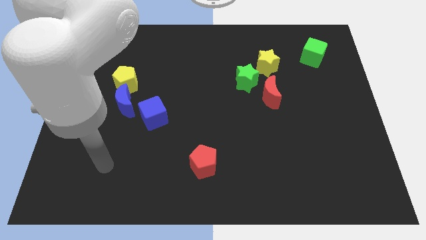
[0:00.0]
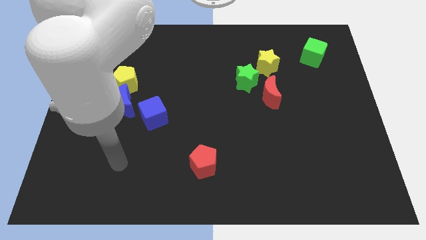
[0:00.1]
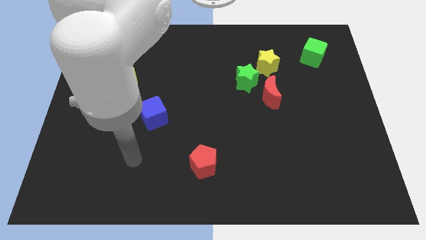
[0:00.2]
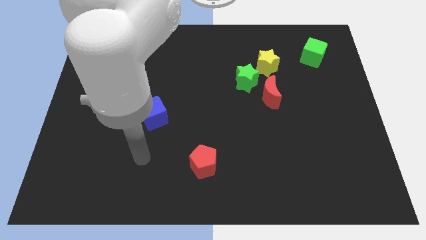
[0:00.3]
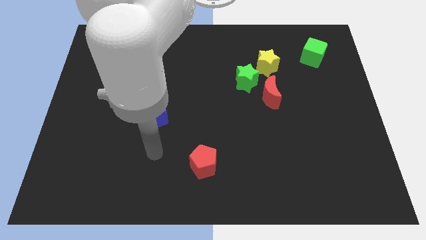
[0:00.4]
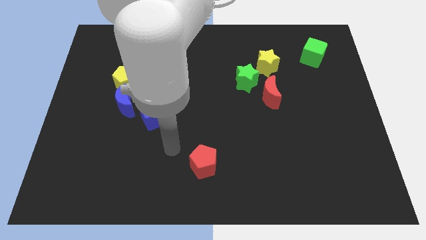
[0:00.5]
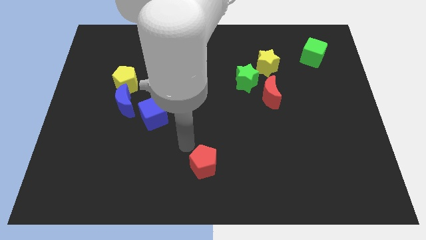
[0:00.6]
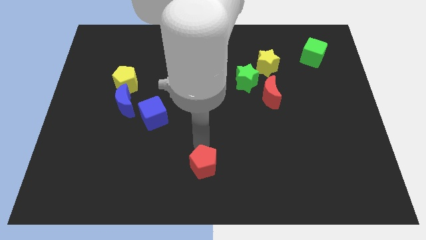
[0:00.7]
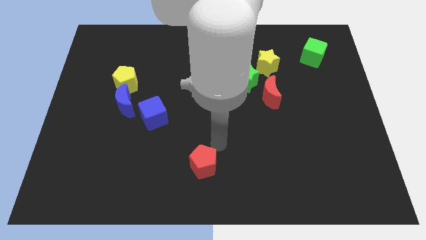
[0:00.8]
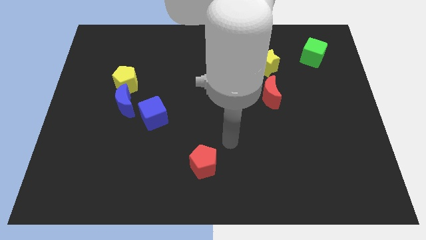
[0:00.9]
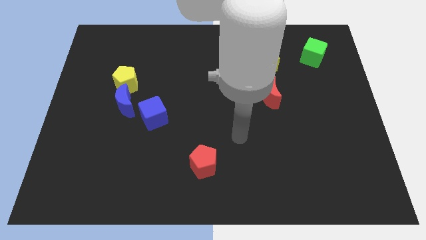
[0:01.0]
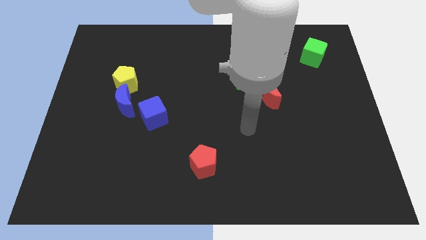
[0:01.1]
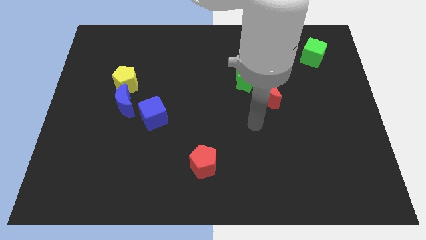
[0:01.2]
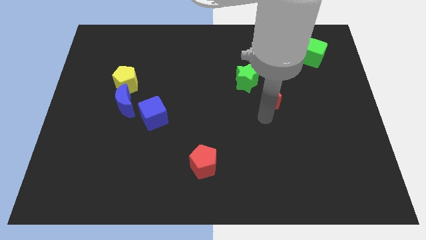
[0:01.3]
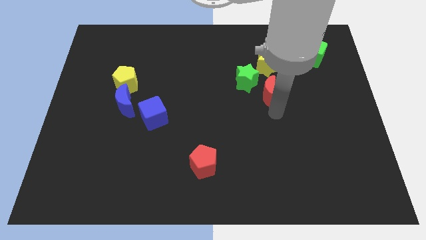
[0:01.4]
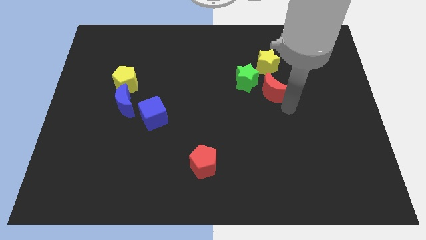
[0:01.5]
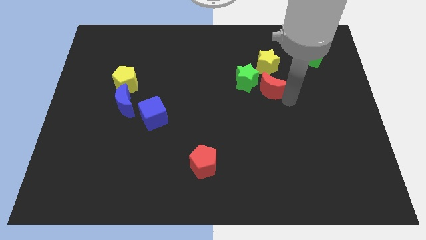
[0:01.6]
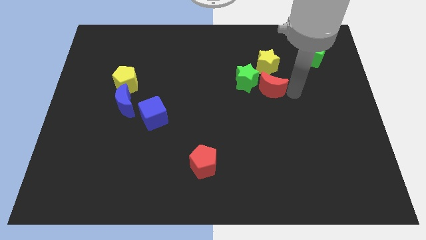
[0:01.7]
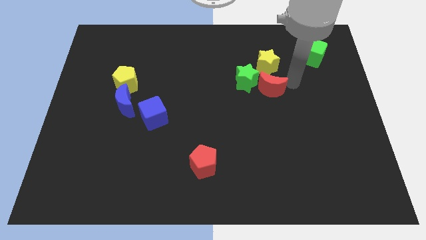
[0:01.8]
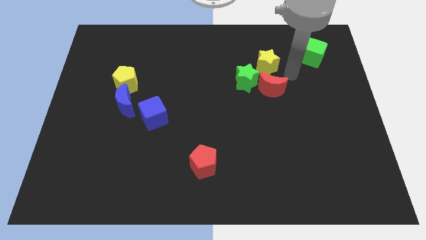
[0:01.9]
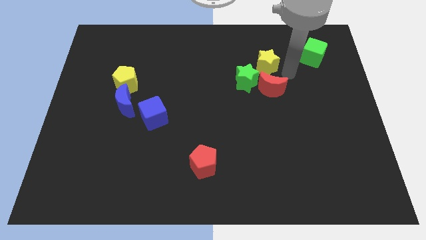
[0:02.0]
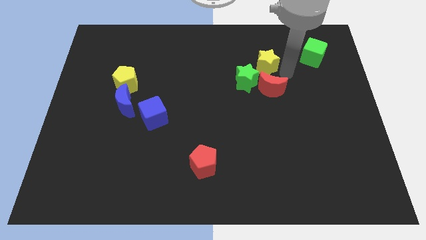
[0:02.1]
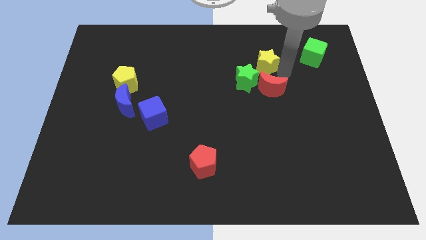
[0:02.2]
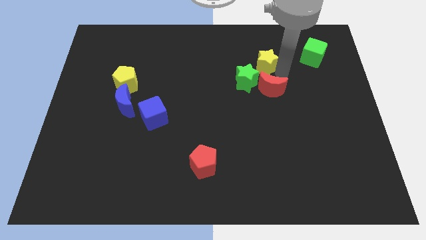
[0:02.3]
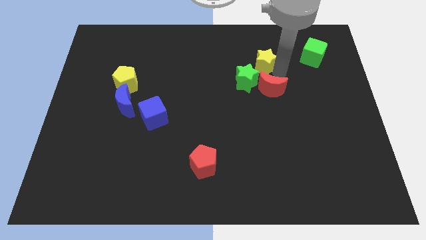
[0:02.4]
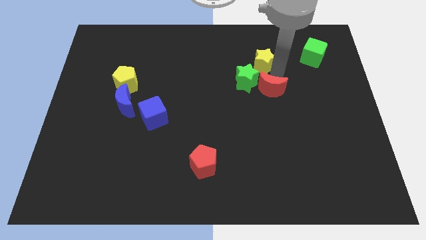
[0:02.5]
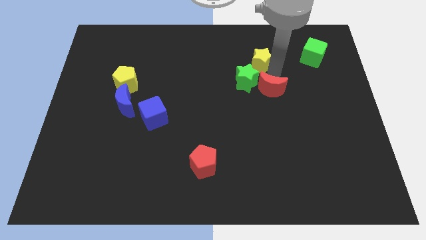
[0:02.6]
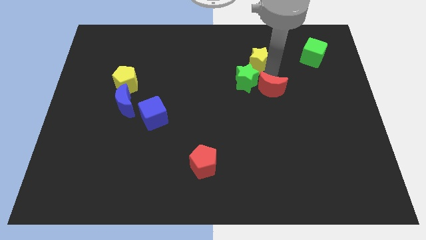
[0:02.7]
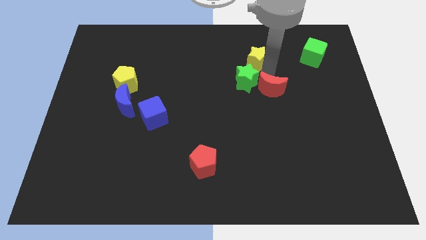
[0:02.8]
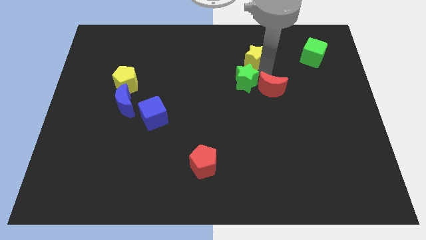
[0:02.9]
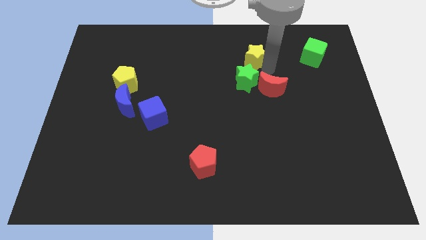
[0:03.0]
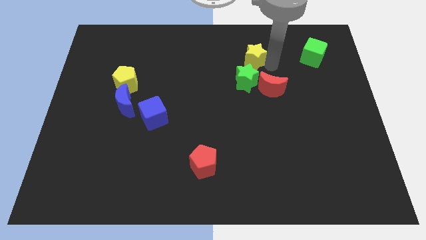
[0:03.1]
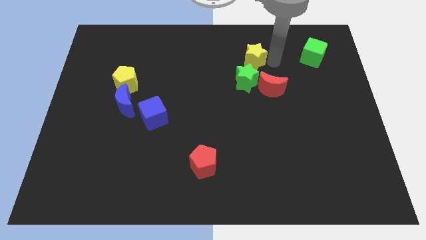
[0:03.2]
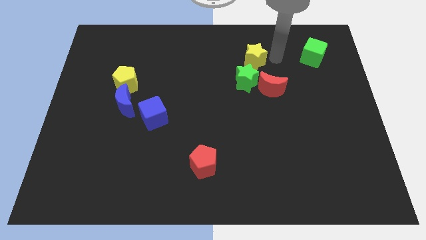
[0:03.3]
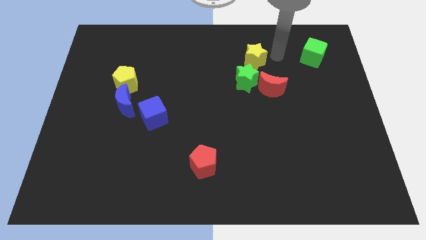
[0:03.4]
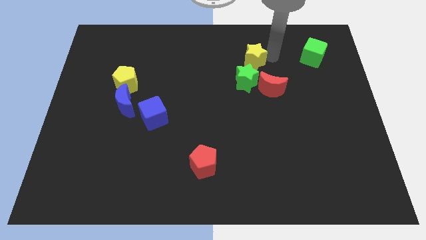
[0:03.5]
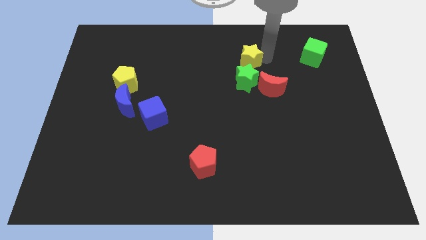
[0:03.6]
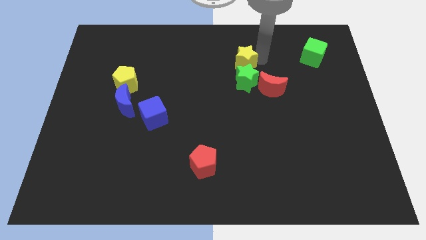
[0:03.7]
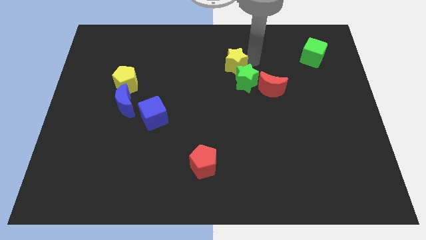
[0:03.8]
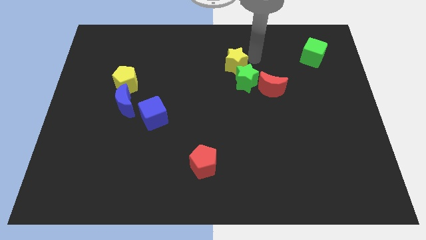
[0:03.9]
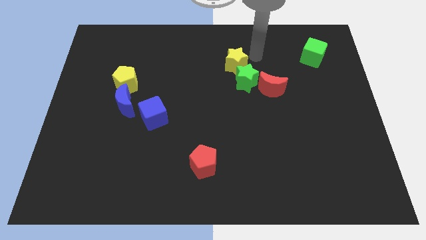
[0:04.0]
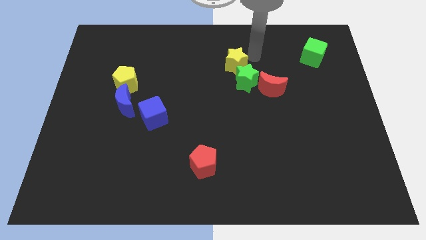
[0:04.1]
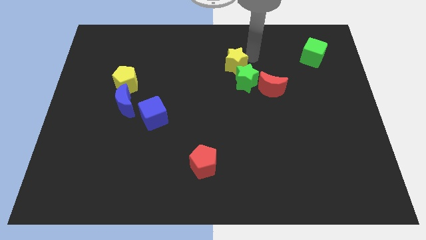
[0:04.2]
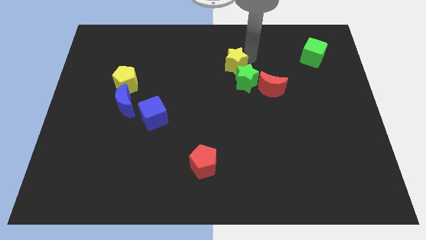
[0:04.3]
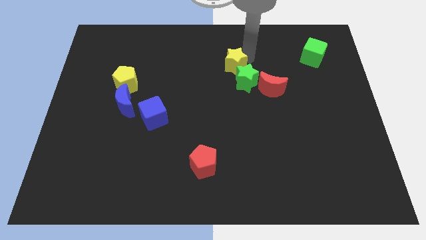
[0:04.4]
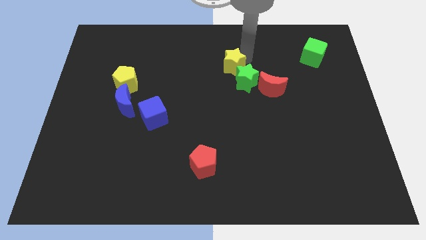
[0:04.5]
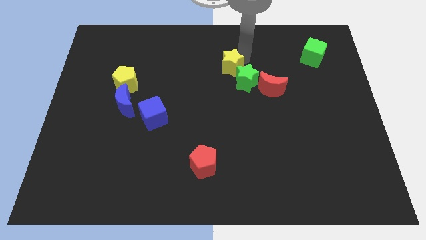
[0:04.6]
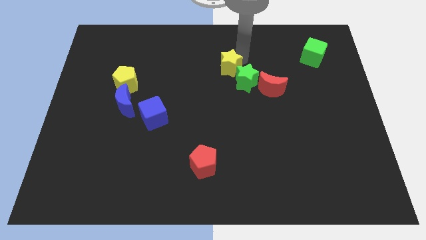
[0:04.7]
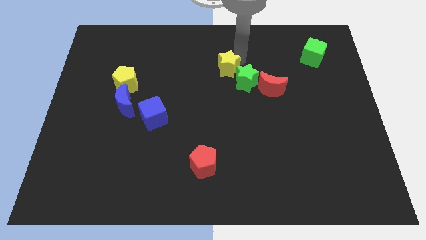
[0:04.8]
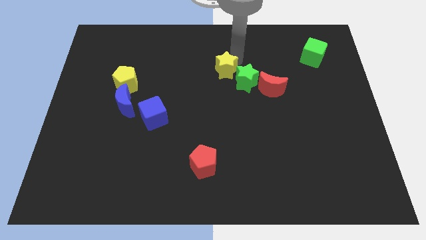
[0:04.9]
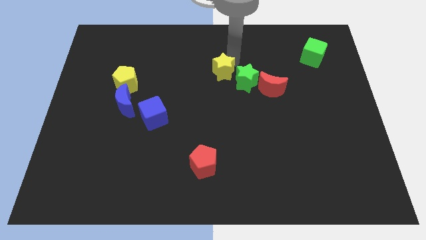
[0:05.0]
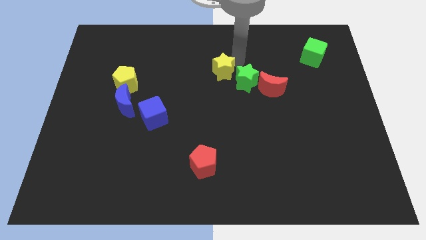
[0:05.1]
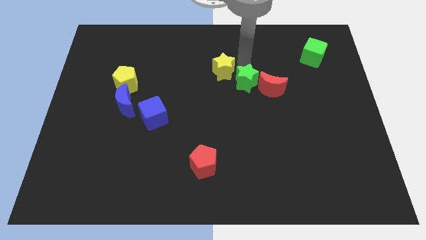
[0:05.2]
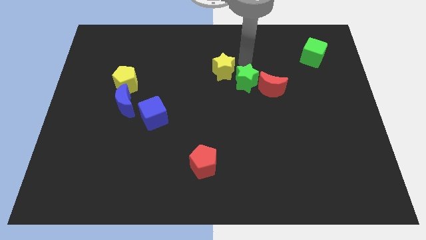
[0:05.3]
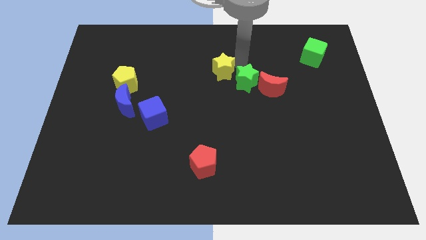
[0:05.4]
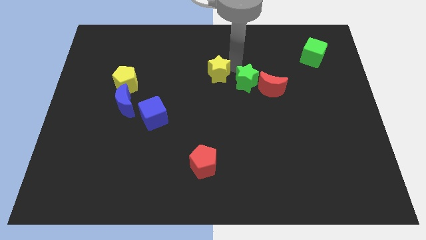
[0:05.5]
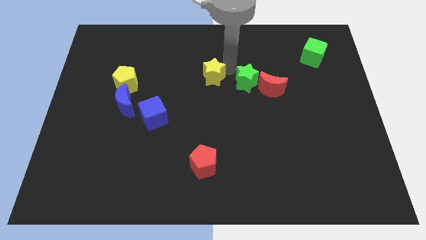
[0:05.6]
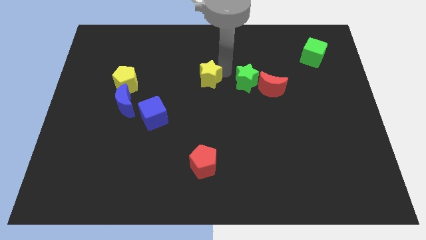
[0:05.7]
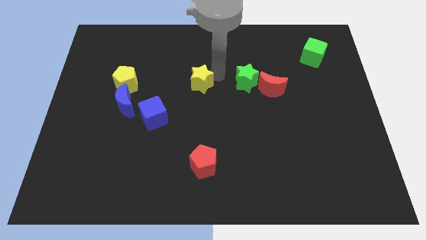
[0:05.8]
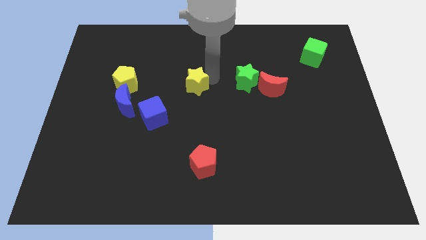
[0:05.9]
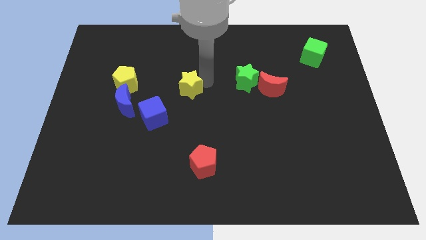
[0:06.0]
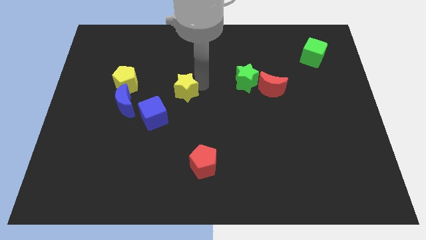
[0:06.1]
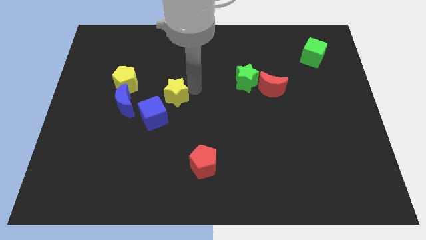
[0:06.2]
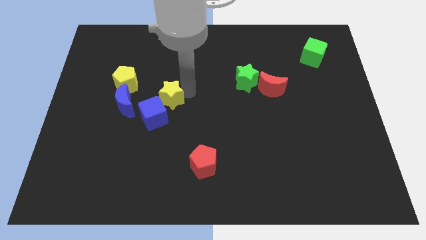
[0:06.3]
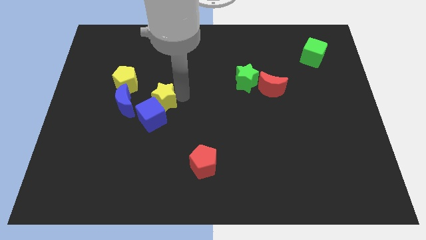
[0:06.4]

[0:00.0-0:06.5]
push the yellow star to the bottom right of the yellow pentagon

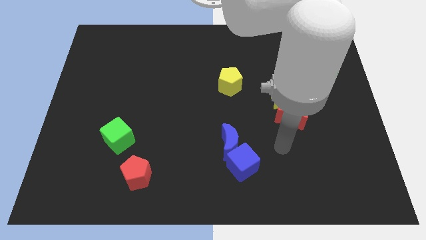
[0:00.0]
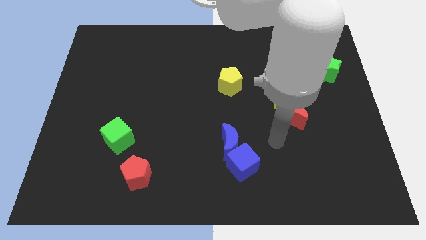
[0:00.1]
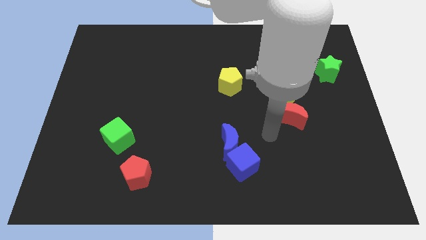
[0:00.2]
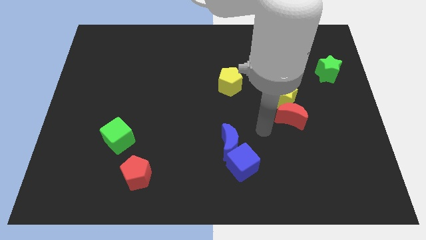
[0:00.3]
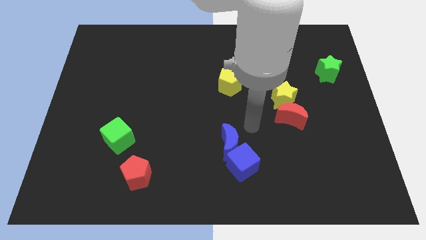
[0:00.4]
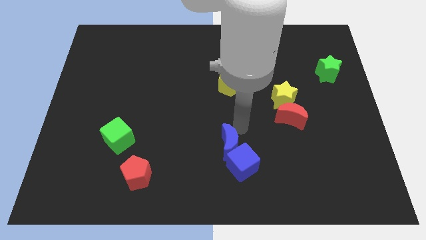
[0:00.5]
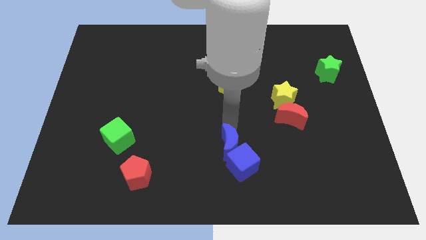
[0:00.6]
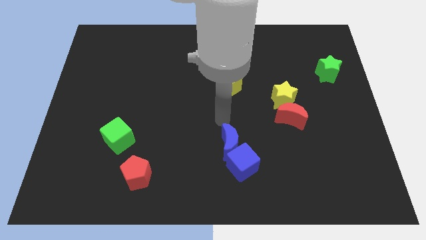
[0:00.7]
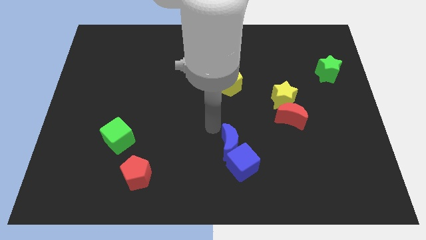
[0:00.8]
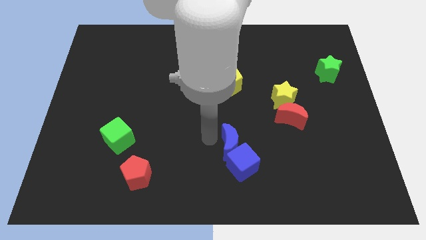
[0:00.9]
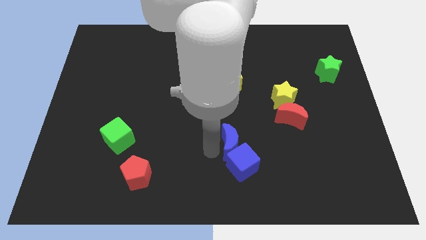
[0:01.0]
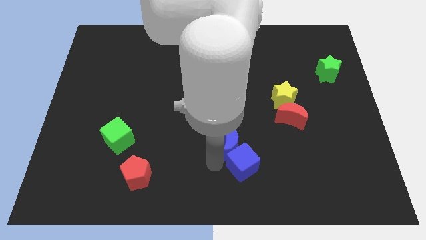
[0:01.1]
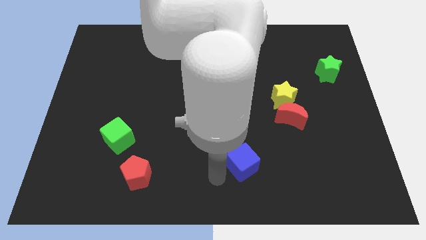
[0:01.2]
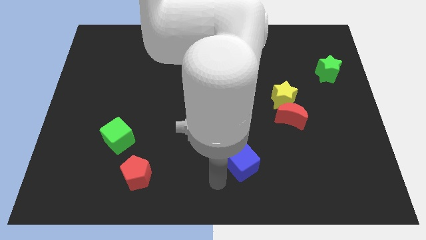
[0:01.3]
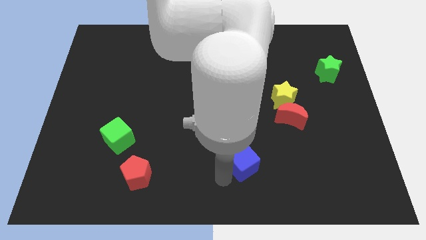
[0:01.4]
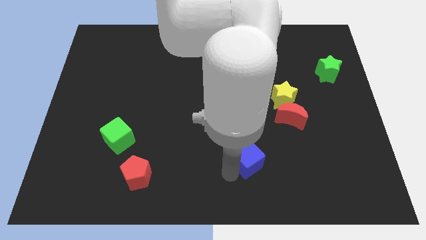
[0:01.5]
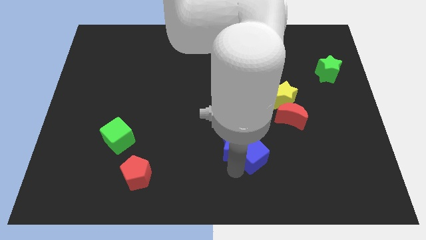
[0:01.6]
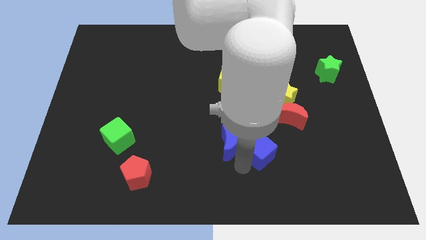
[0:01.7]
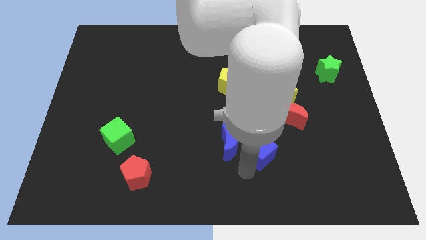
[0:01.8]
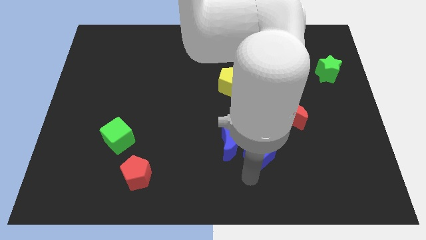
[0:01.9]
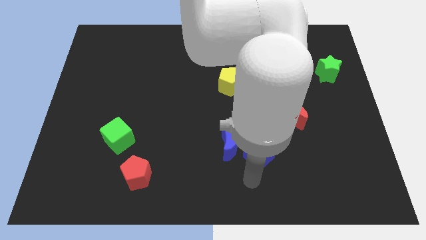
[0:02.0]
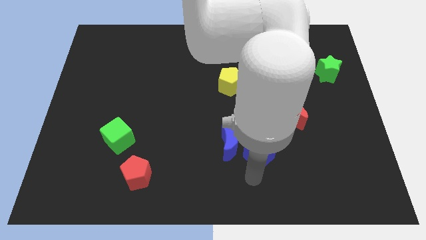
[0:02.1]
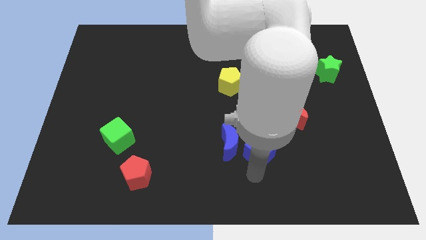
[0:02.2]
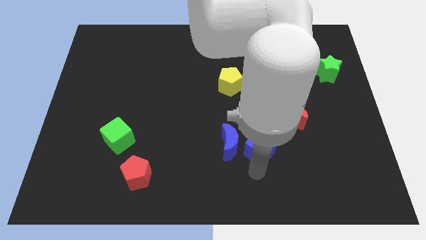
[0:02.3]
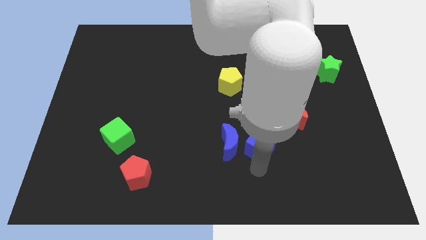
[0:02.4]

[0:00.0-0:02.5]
slide the blue cube to the top right of the blue moon
